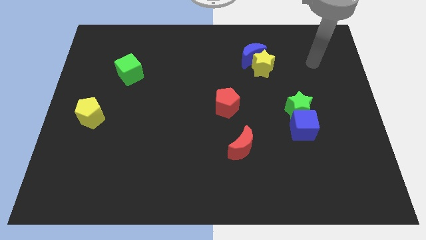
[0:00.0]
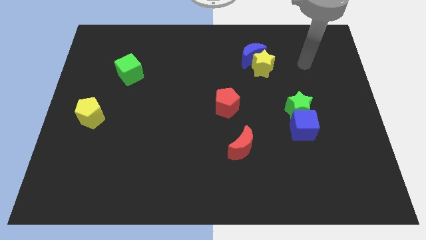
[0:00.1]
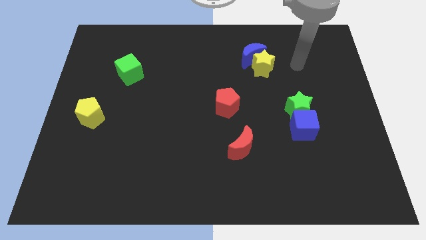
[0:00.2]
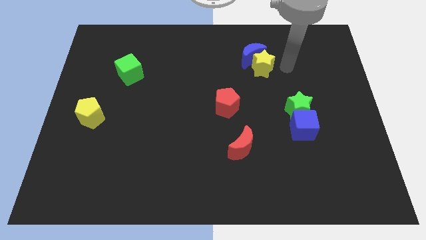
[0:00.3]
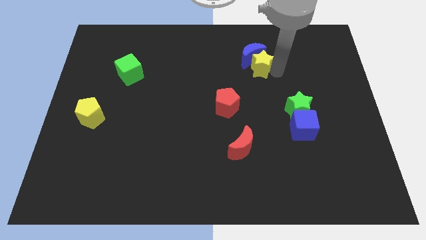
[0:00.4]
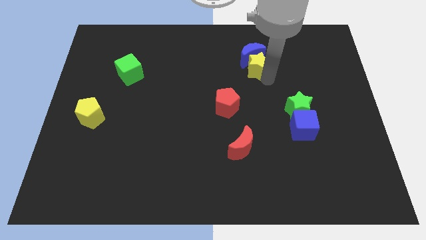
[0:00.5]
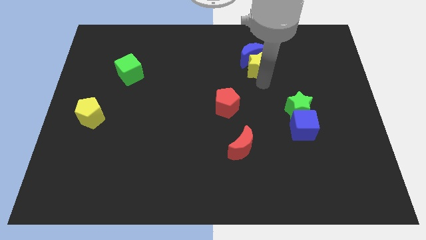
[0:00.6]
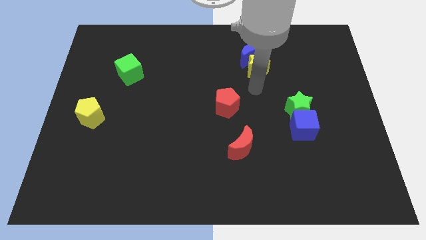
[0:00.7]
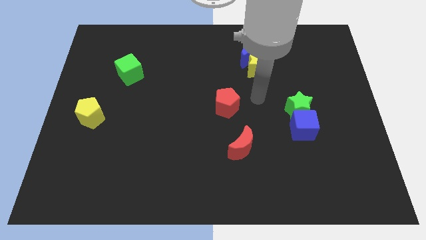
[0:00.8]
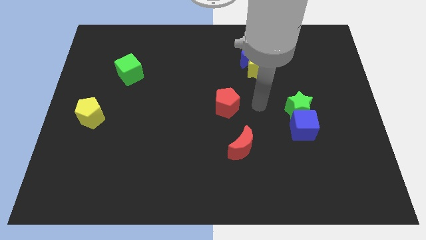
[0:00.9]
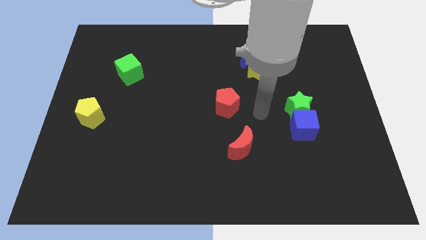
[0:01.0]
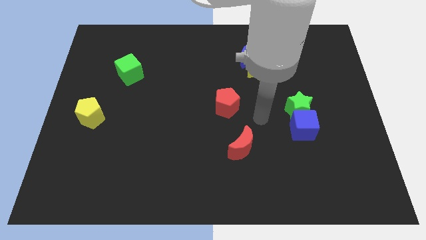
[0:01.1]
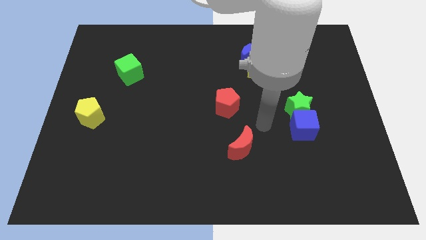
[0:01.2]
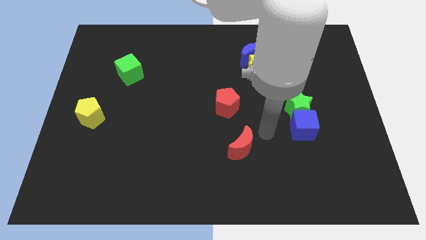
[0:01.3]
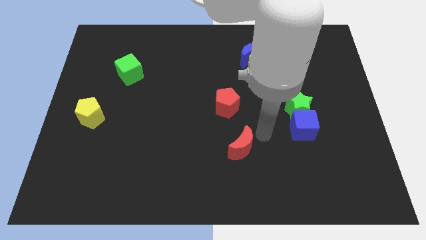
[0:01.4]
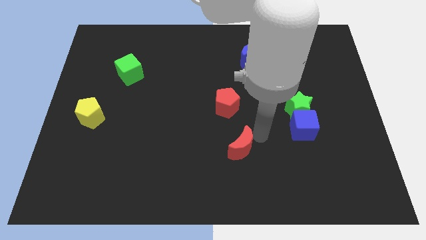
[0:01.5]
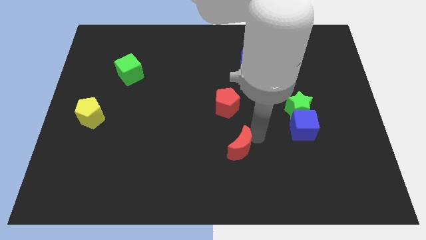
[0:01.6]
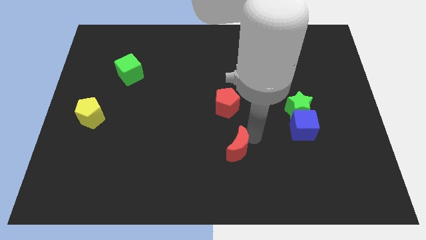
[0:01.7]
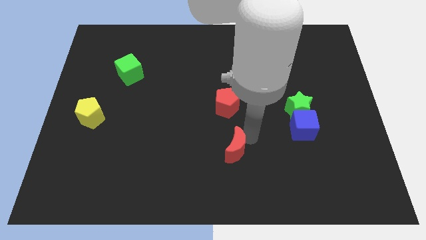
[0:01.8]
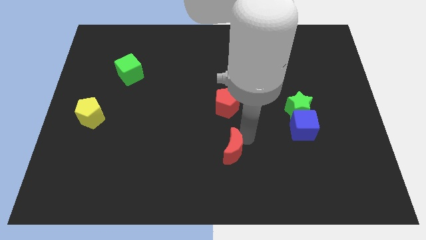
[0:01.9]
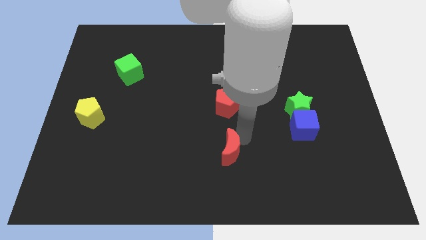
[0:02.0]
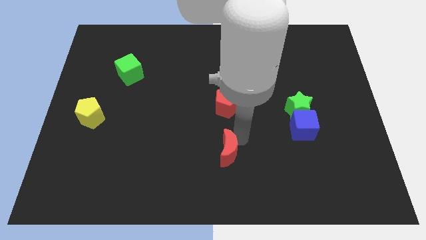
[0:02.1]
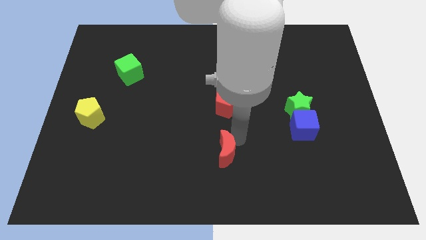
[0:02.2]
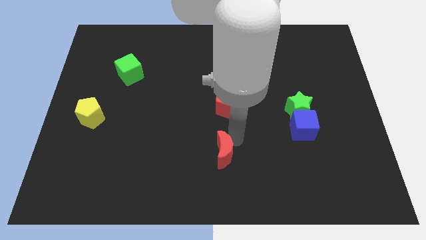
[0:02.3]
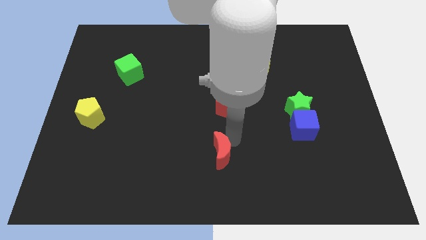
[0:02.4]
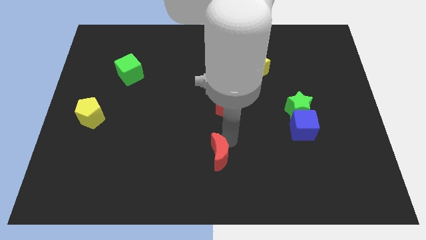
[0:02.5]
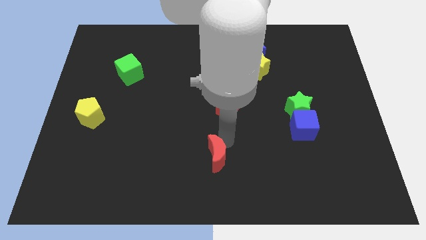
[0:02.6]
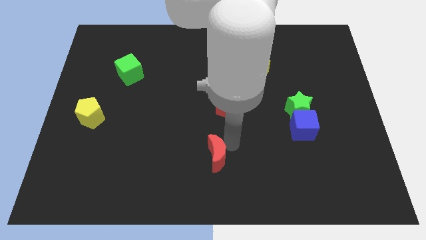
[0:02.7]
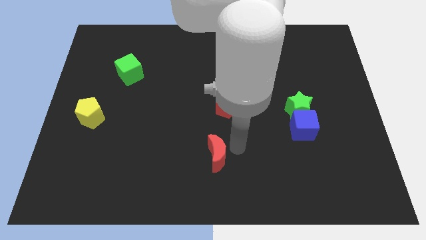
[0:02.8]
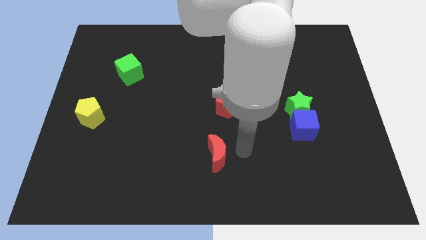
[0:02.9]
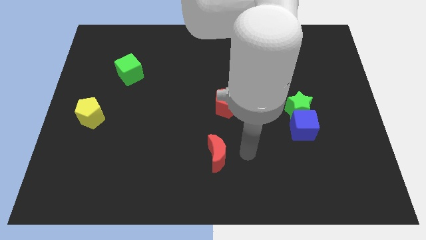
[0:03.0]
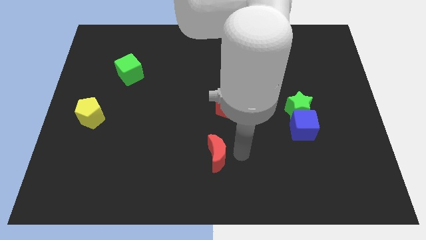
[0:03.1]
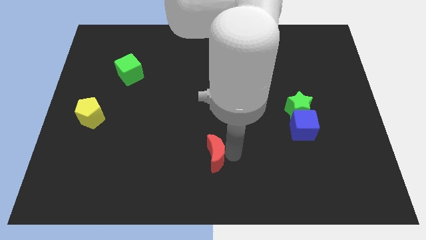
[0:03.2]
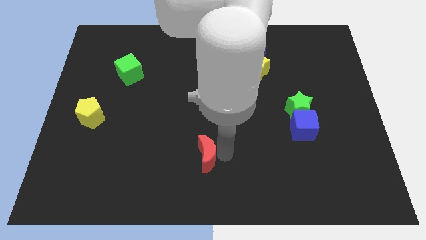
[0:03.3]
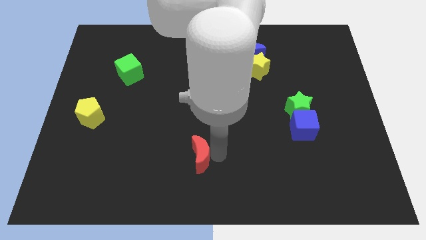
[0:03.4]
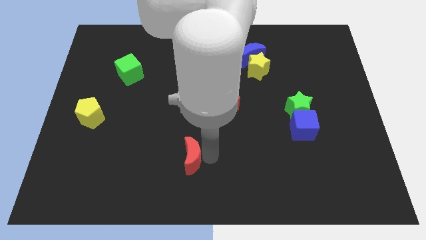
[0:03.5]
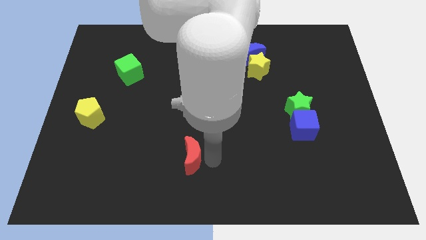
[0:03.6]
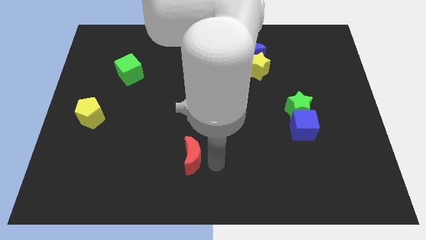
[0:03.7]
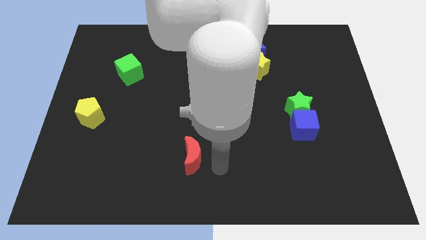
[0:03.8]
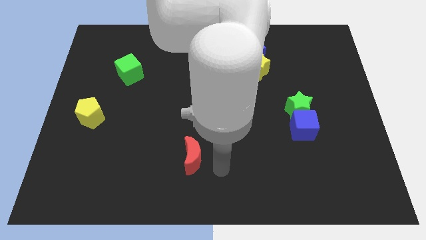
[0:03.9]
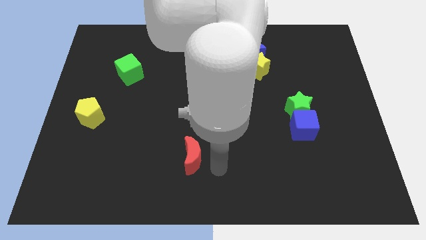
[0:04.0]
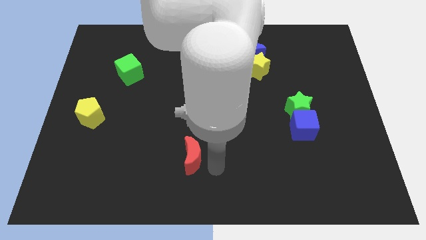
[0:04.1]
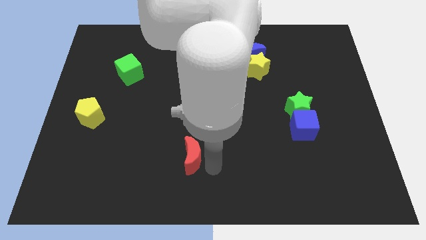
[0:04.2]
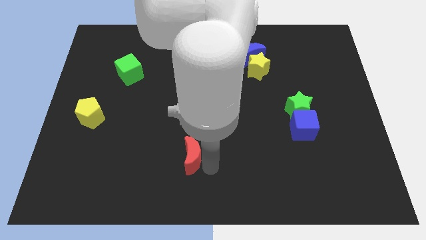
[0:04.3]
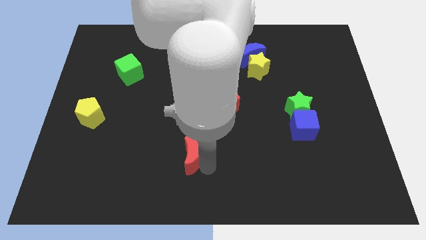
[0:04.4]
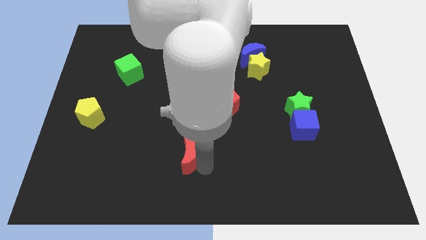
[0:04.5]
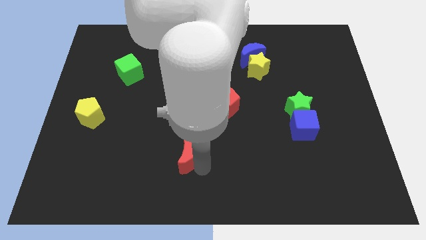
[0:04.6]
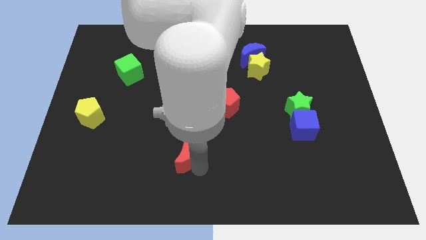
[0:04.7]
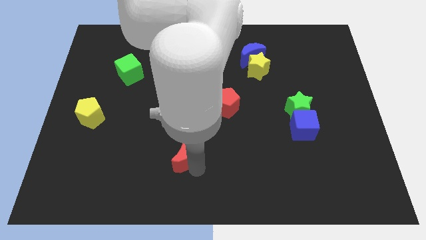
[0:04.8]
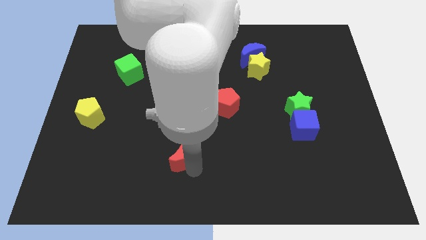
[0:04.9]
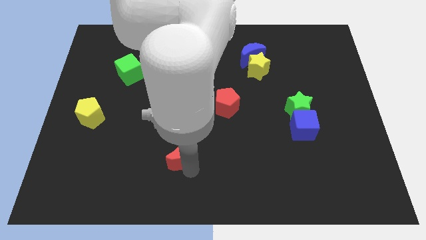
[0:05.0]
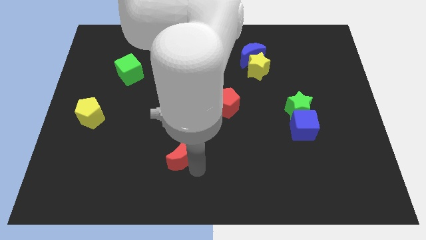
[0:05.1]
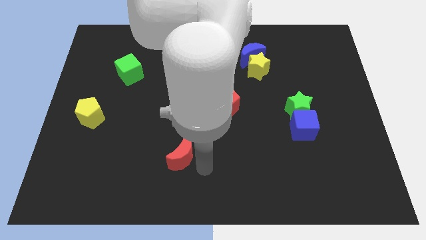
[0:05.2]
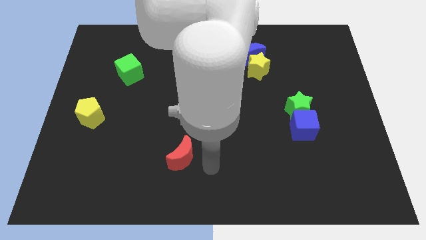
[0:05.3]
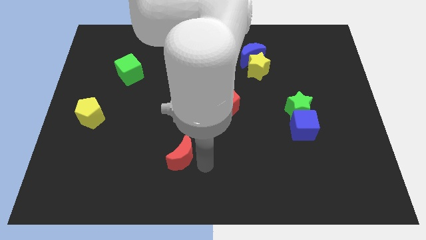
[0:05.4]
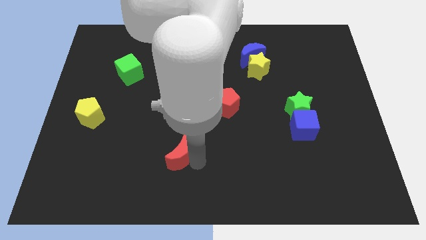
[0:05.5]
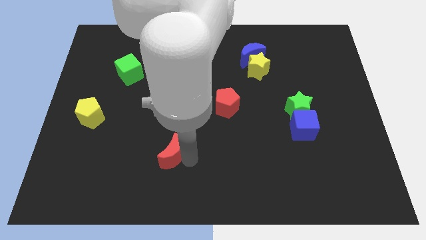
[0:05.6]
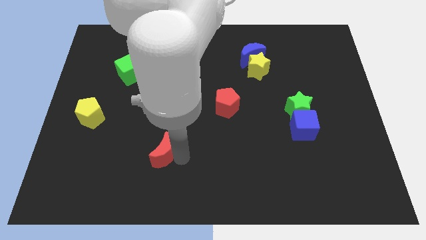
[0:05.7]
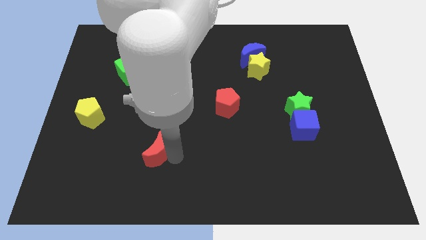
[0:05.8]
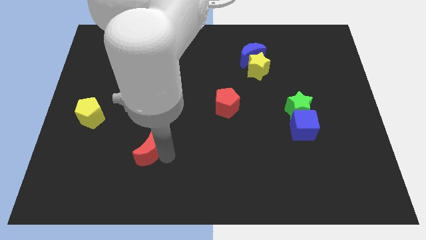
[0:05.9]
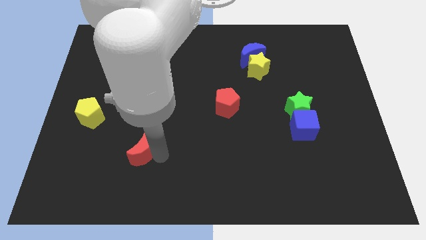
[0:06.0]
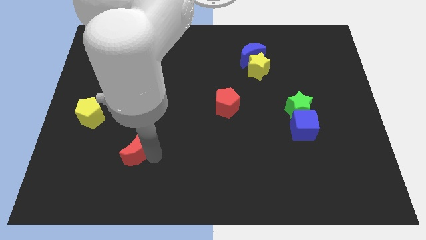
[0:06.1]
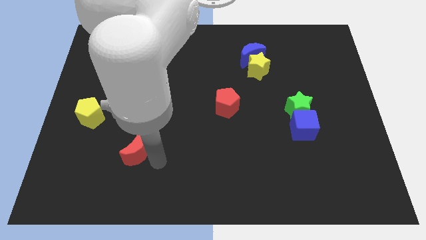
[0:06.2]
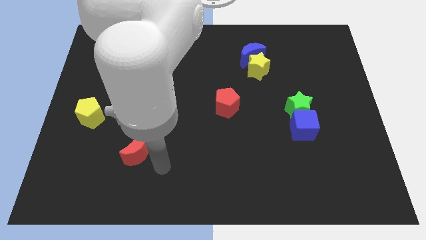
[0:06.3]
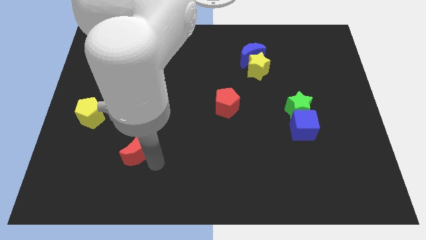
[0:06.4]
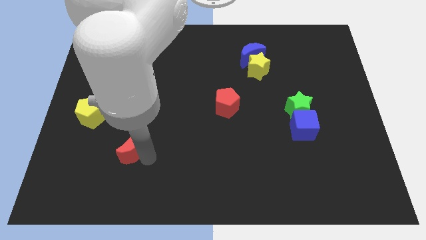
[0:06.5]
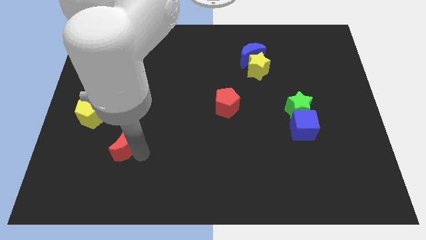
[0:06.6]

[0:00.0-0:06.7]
put the red moon diagonally down and to the right of the yellow pentagon
